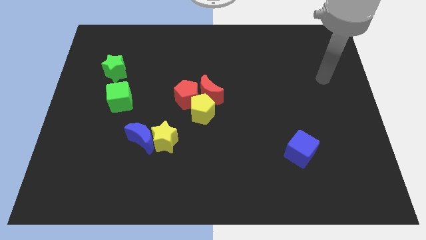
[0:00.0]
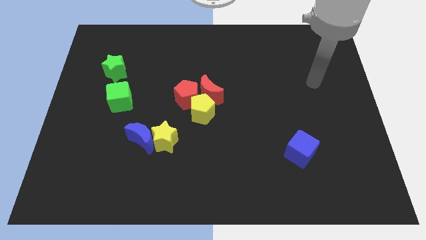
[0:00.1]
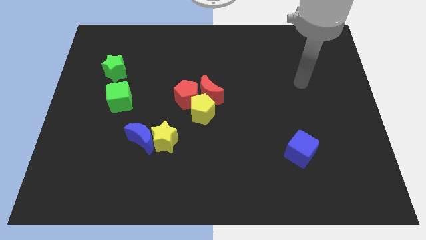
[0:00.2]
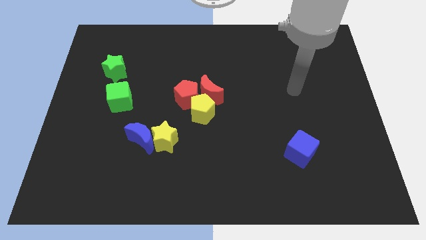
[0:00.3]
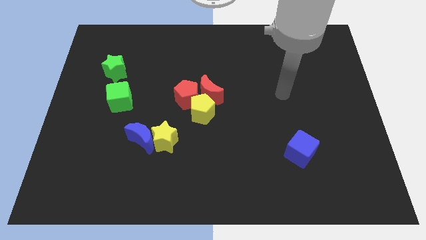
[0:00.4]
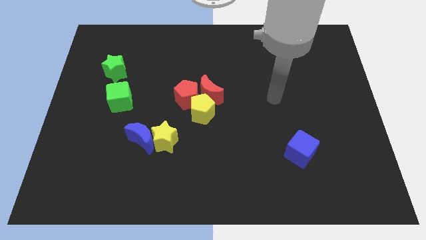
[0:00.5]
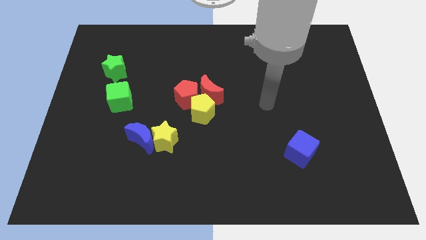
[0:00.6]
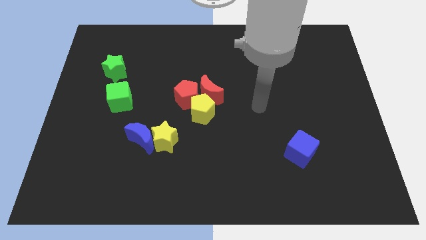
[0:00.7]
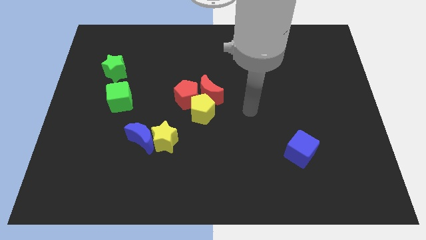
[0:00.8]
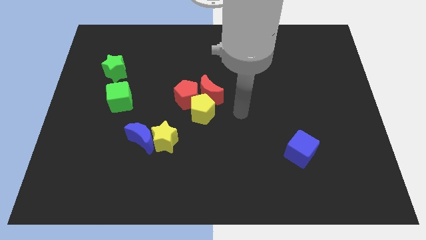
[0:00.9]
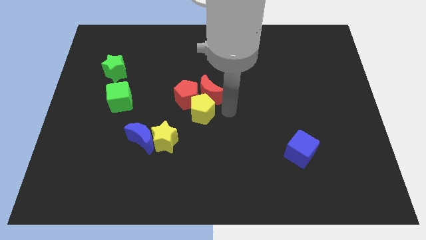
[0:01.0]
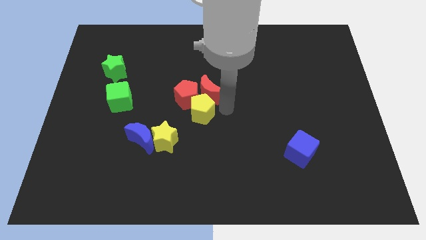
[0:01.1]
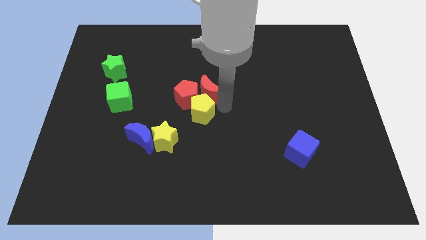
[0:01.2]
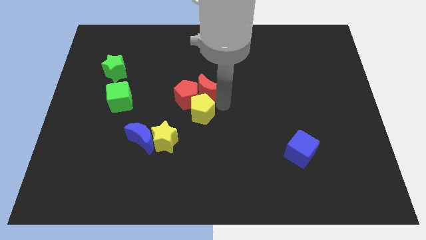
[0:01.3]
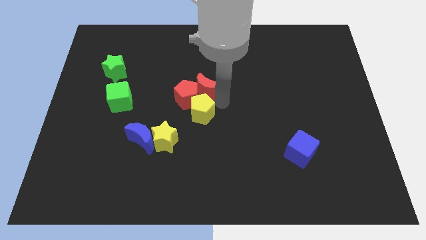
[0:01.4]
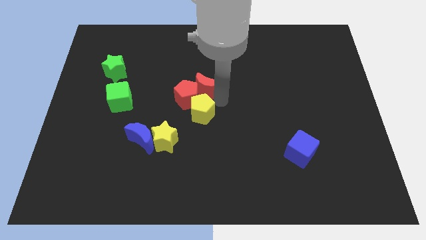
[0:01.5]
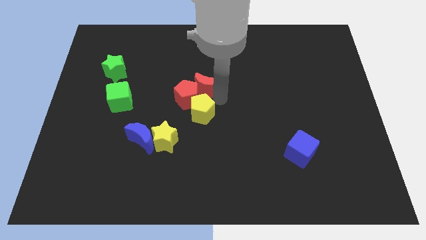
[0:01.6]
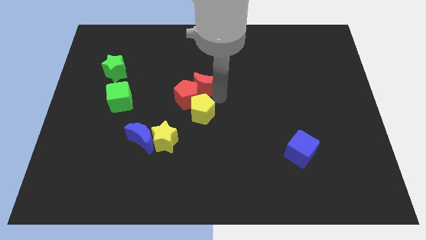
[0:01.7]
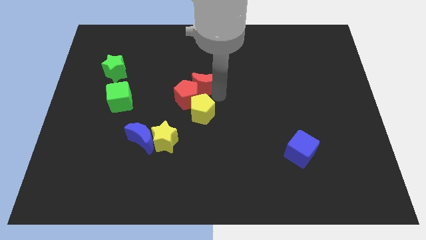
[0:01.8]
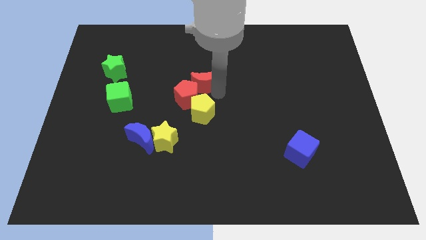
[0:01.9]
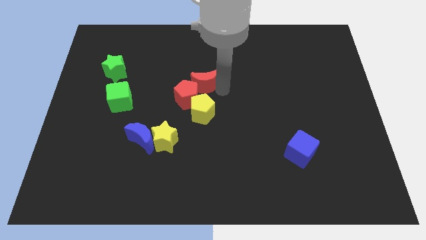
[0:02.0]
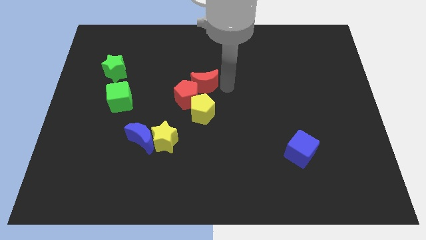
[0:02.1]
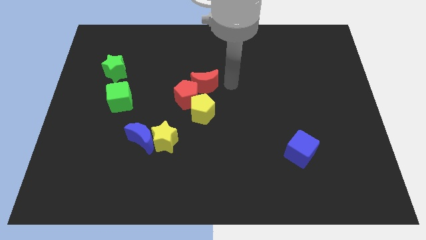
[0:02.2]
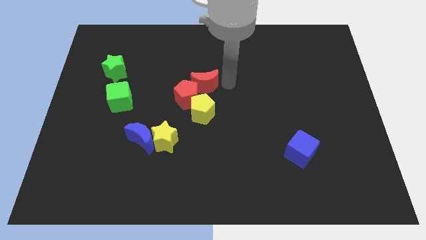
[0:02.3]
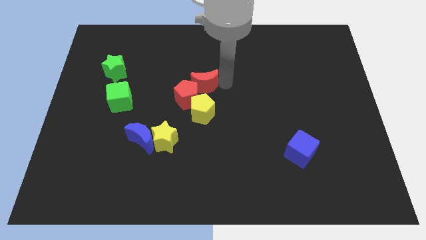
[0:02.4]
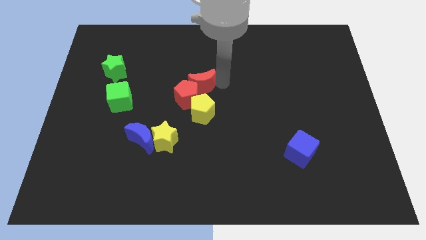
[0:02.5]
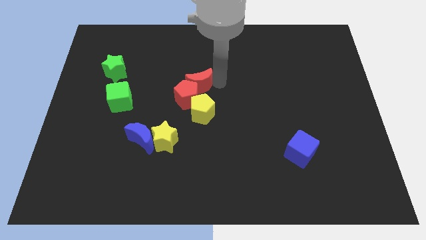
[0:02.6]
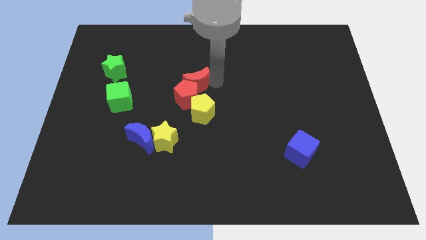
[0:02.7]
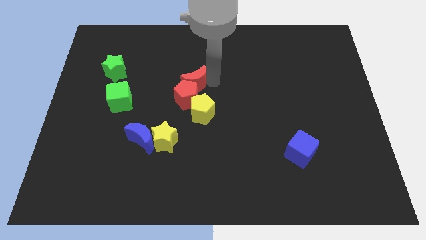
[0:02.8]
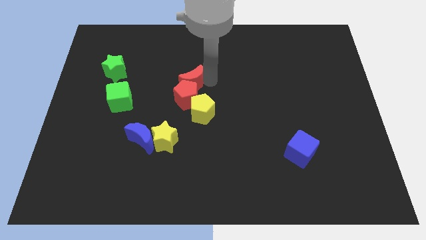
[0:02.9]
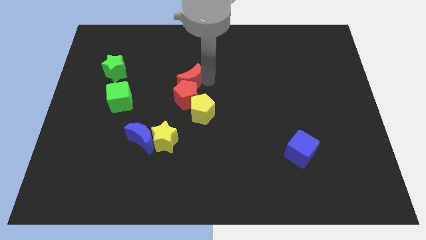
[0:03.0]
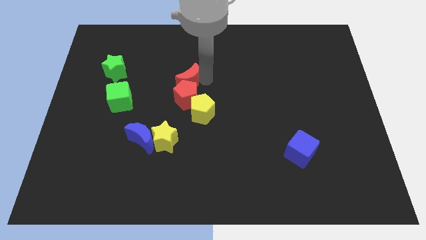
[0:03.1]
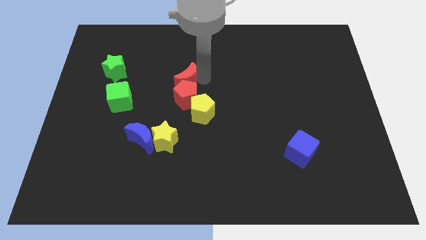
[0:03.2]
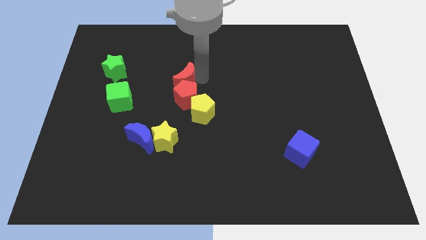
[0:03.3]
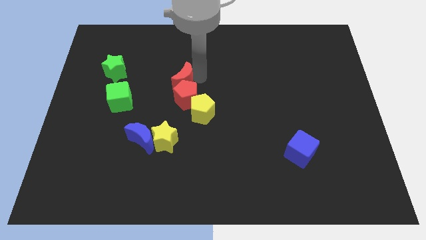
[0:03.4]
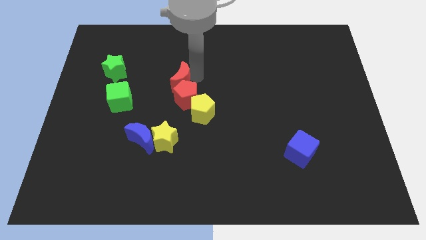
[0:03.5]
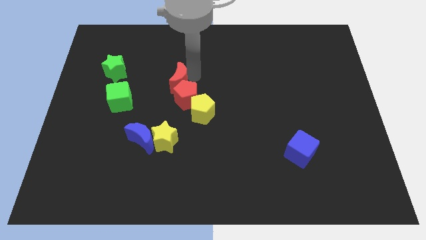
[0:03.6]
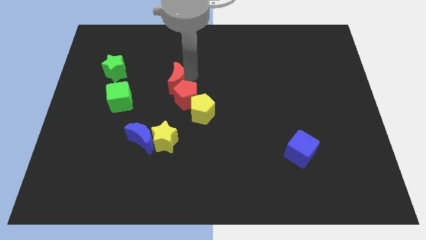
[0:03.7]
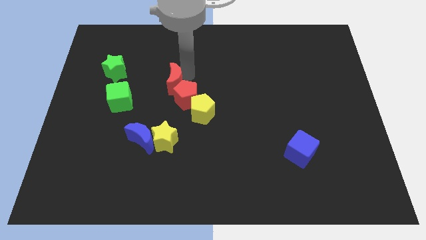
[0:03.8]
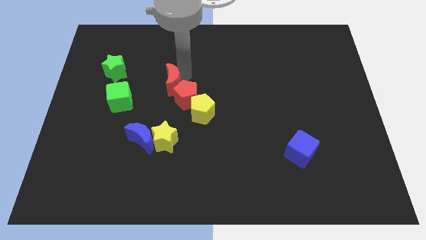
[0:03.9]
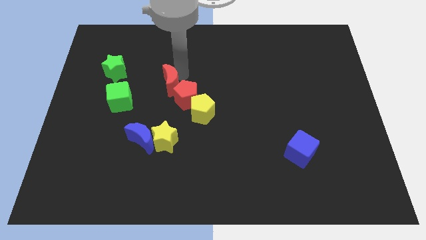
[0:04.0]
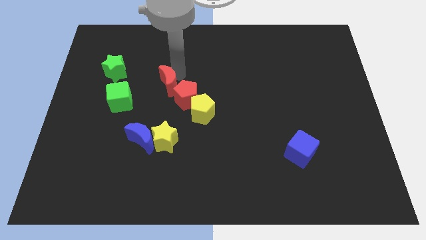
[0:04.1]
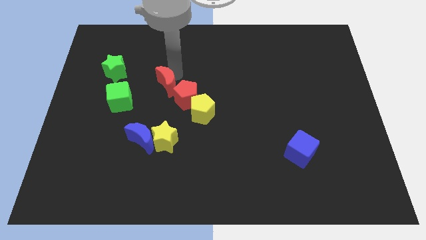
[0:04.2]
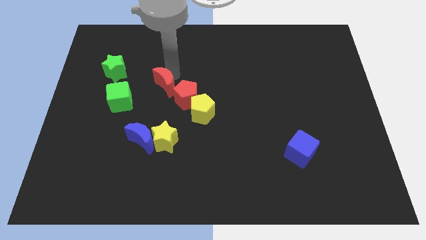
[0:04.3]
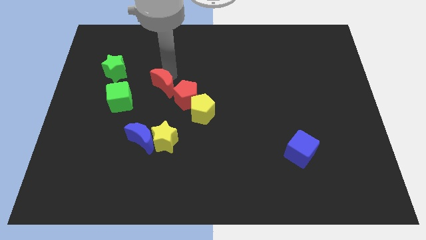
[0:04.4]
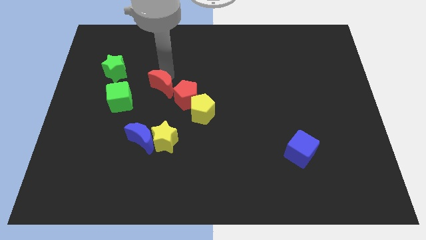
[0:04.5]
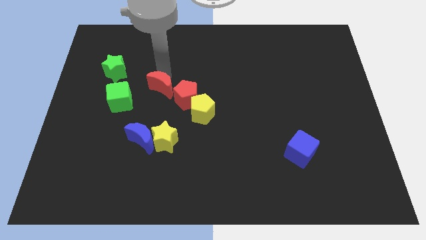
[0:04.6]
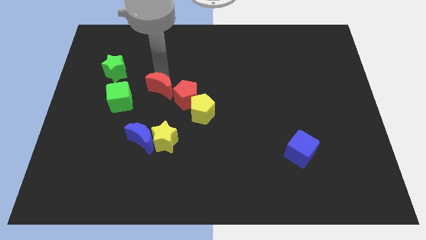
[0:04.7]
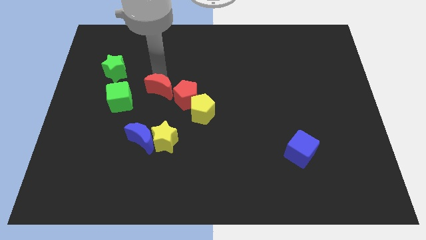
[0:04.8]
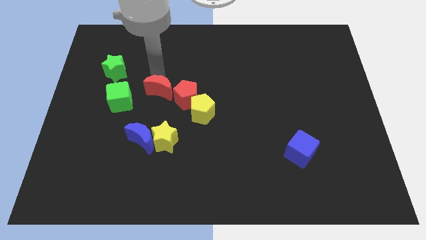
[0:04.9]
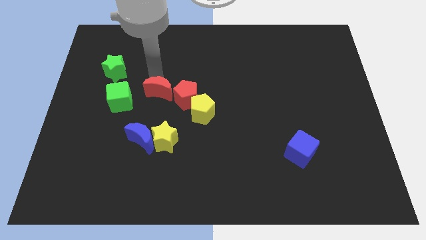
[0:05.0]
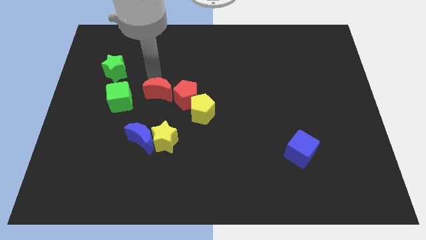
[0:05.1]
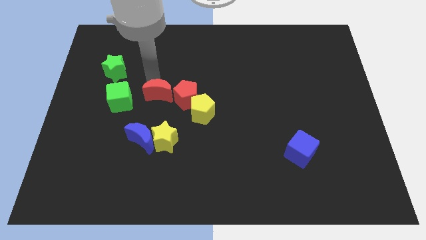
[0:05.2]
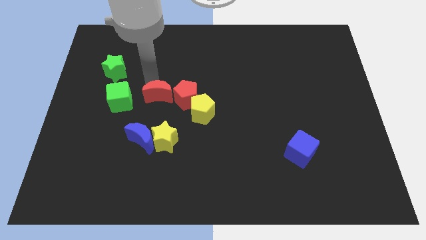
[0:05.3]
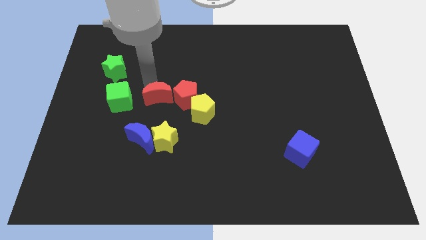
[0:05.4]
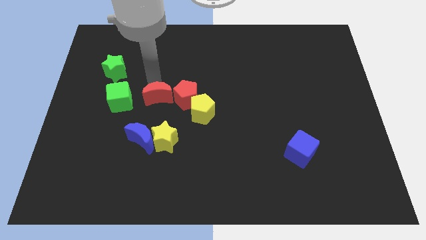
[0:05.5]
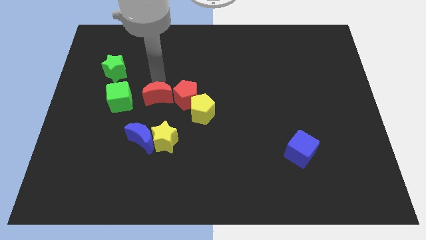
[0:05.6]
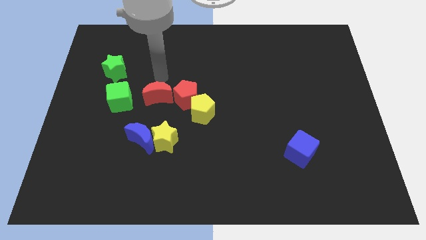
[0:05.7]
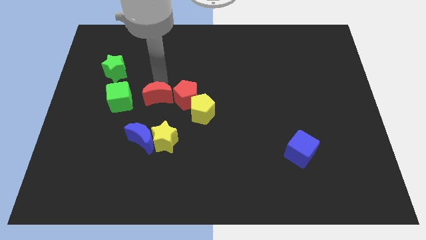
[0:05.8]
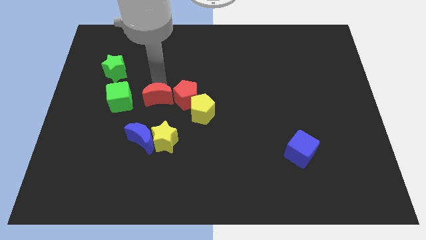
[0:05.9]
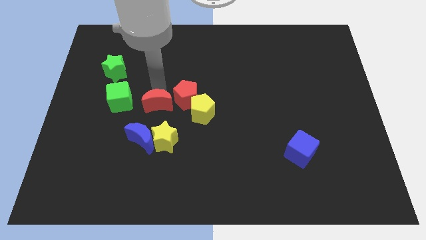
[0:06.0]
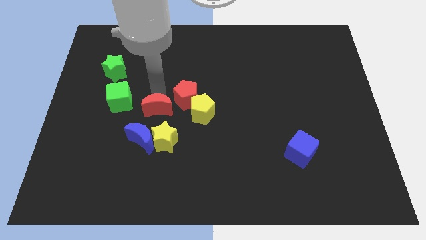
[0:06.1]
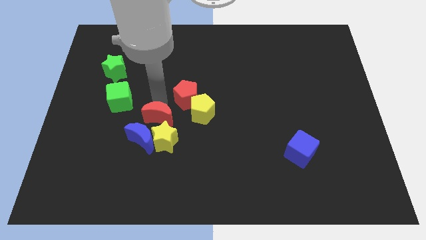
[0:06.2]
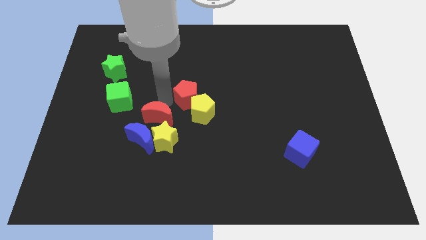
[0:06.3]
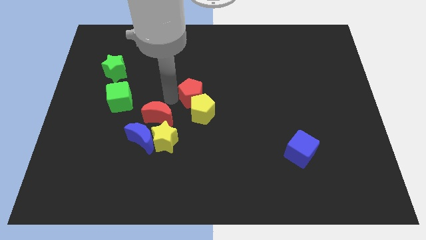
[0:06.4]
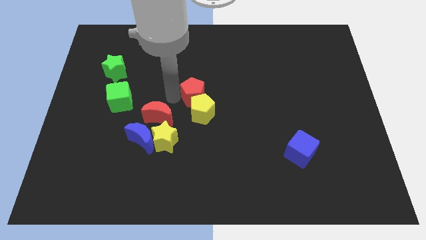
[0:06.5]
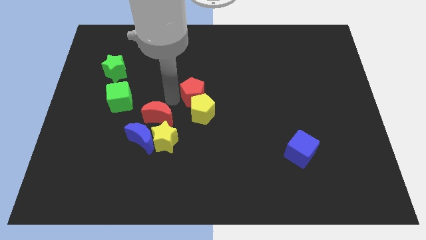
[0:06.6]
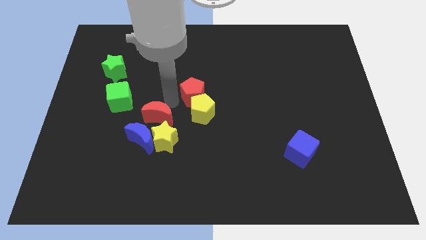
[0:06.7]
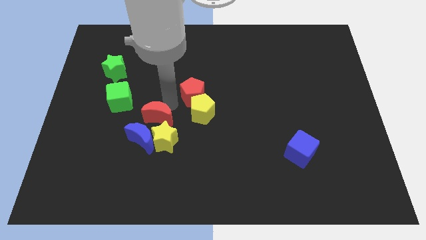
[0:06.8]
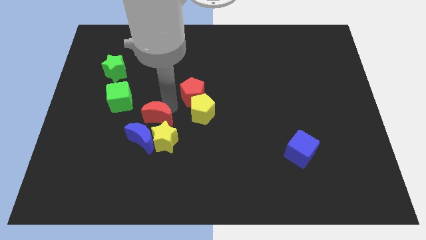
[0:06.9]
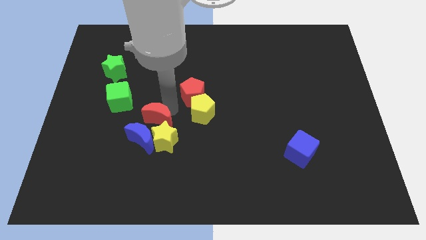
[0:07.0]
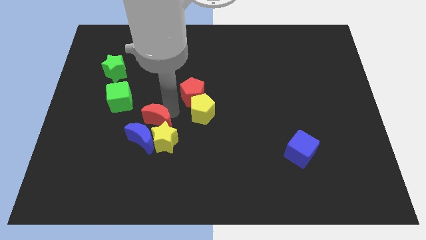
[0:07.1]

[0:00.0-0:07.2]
put the red moon close to the blue moon
